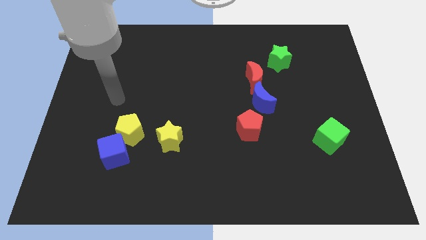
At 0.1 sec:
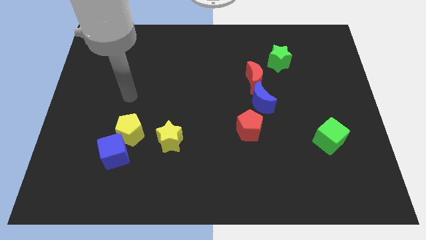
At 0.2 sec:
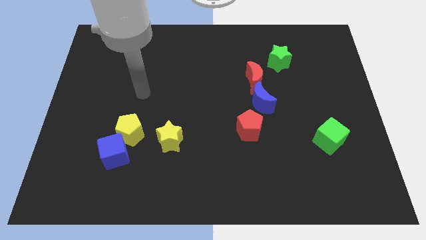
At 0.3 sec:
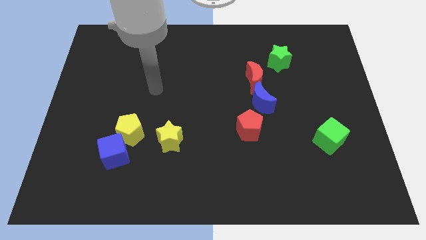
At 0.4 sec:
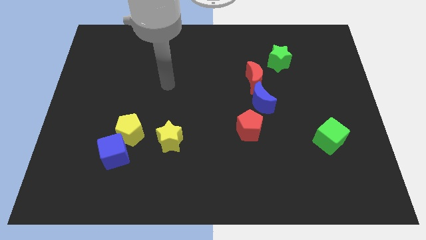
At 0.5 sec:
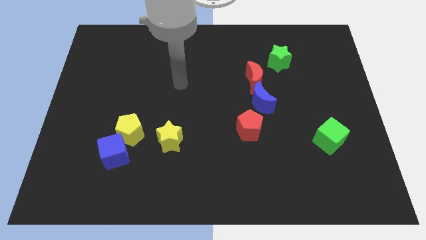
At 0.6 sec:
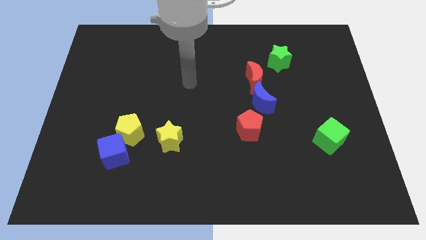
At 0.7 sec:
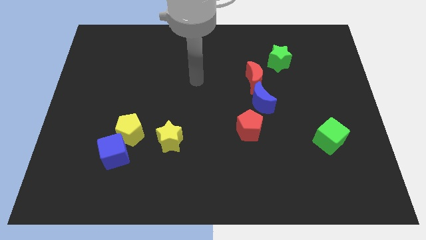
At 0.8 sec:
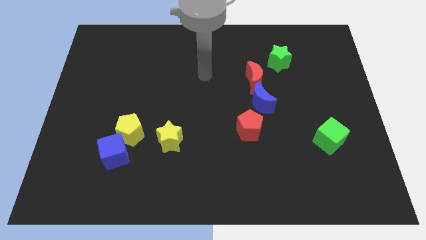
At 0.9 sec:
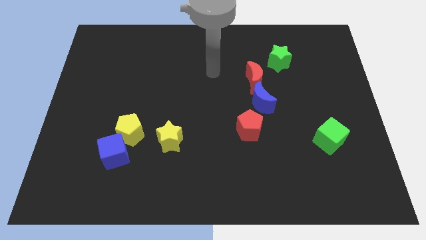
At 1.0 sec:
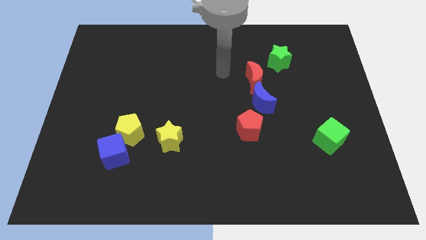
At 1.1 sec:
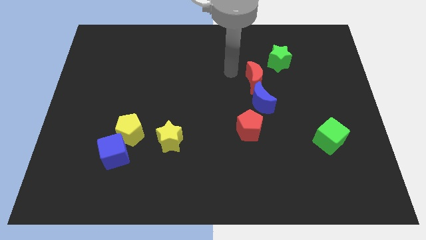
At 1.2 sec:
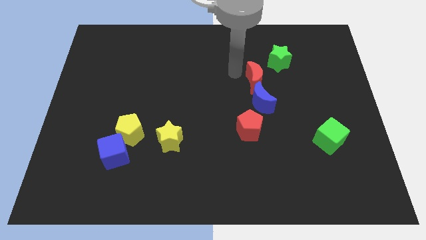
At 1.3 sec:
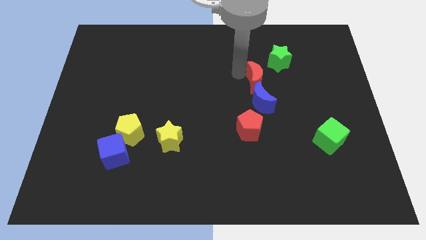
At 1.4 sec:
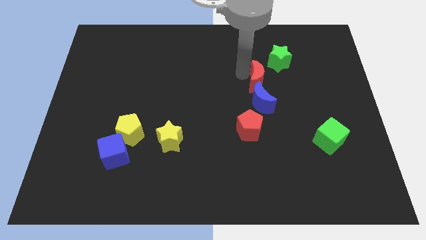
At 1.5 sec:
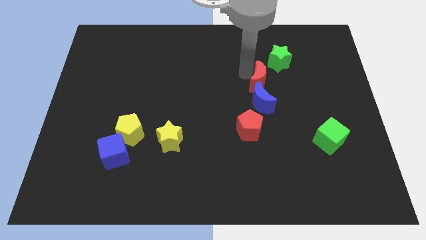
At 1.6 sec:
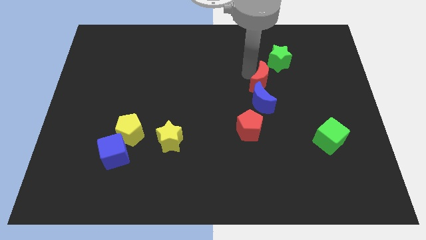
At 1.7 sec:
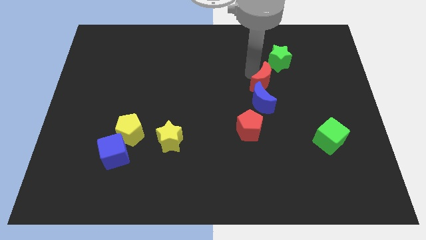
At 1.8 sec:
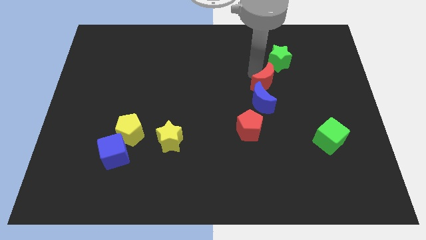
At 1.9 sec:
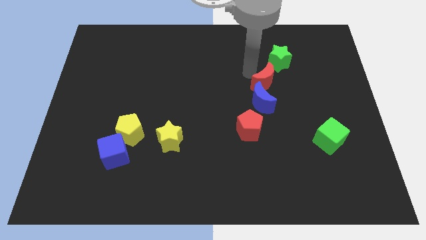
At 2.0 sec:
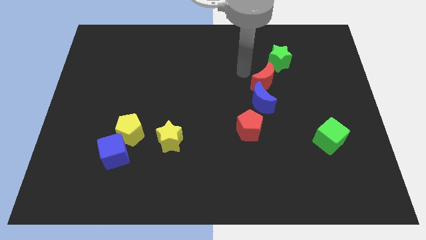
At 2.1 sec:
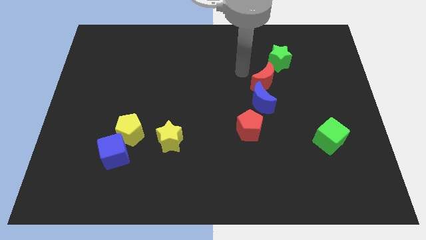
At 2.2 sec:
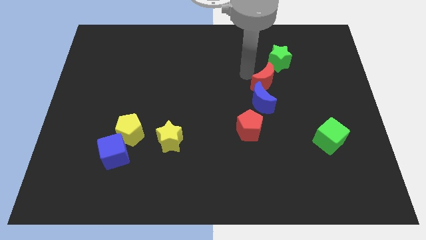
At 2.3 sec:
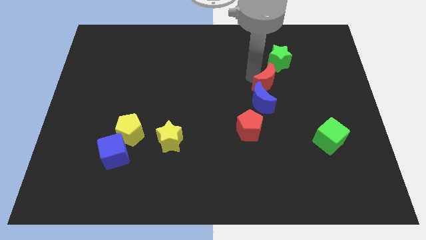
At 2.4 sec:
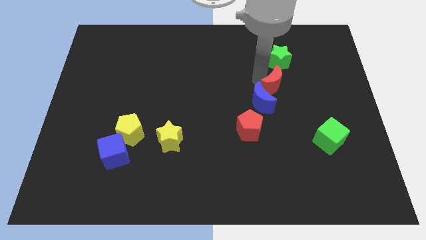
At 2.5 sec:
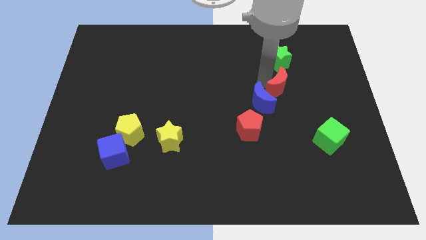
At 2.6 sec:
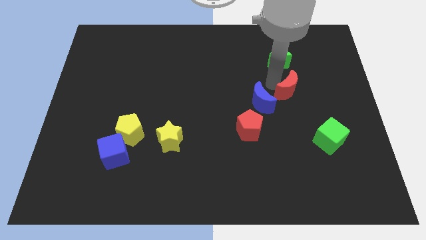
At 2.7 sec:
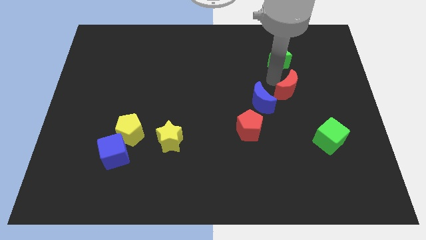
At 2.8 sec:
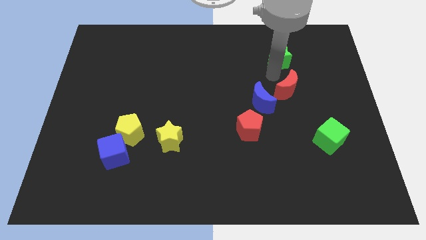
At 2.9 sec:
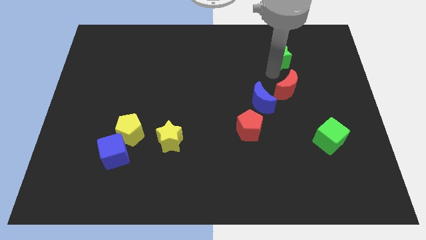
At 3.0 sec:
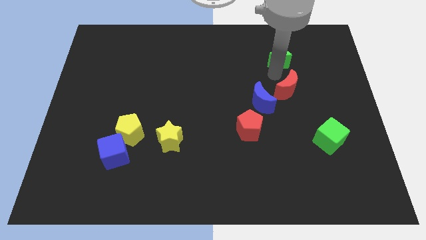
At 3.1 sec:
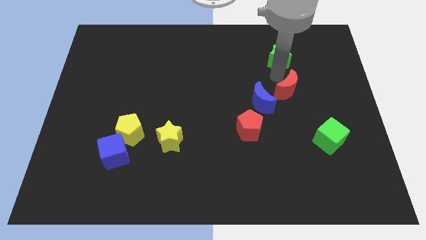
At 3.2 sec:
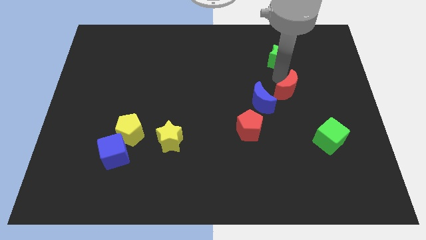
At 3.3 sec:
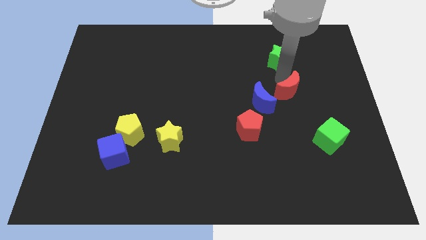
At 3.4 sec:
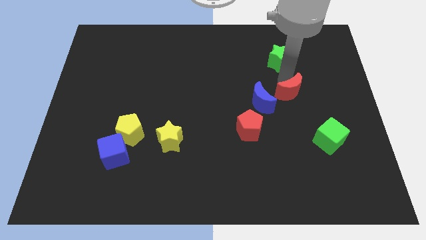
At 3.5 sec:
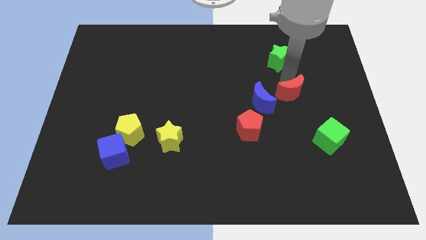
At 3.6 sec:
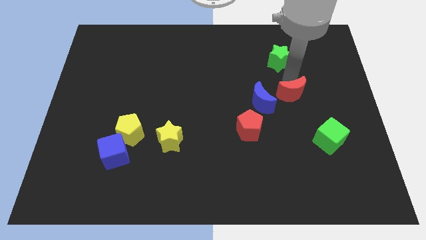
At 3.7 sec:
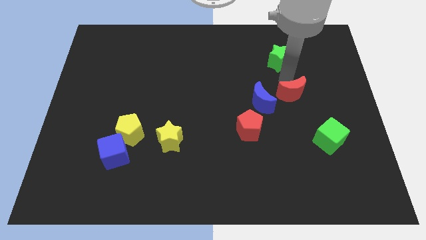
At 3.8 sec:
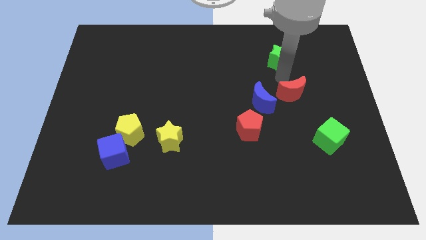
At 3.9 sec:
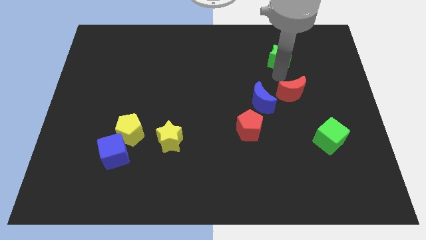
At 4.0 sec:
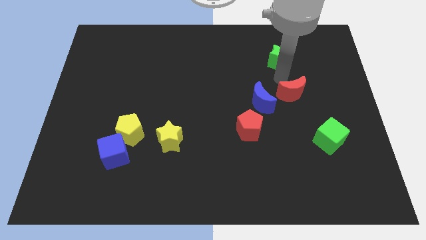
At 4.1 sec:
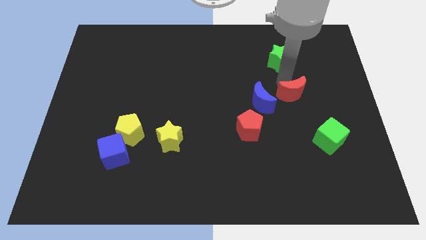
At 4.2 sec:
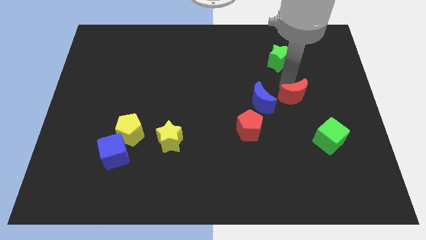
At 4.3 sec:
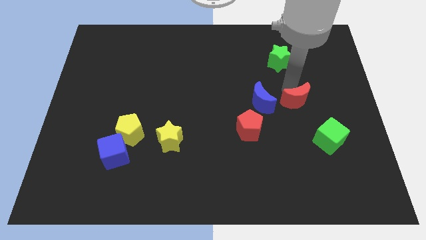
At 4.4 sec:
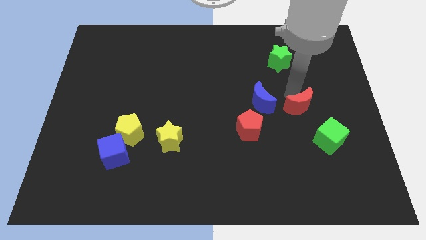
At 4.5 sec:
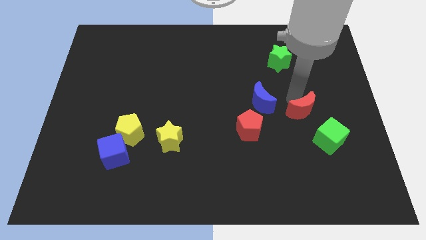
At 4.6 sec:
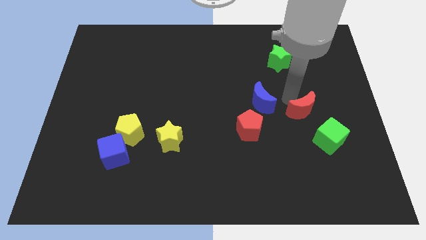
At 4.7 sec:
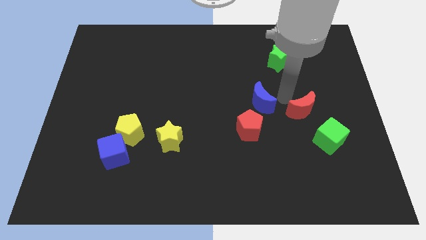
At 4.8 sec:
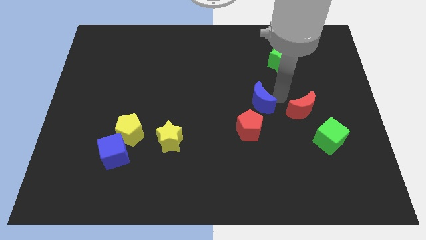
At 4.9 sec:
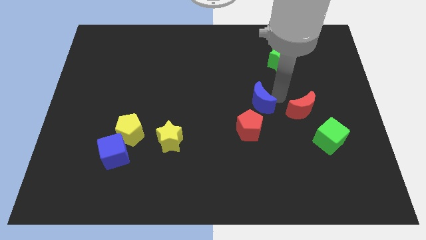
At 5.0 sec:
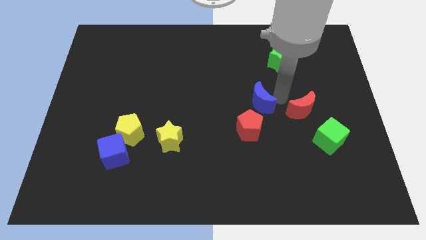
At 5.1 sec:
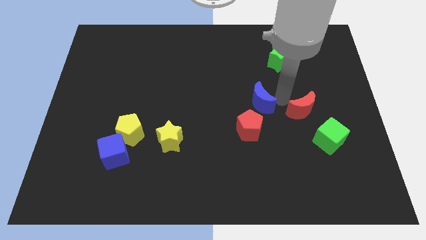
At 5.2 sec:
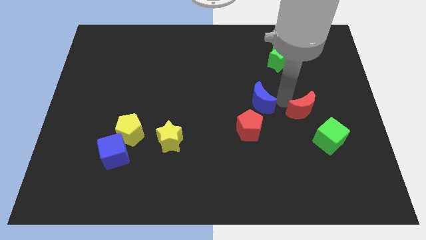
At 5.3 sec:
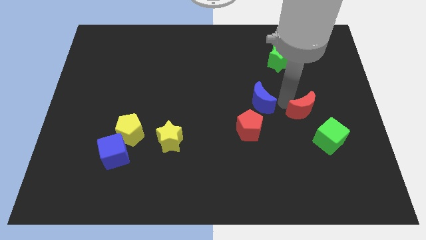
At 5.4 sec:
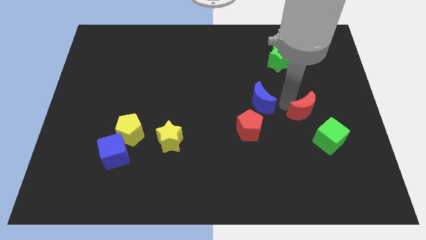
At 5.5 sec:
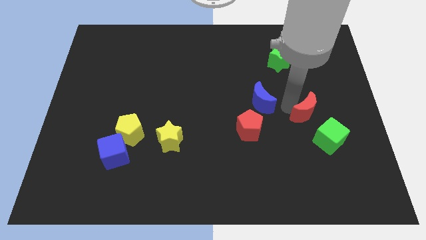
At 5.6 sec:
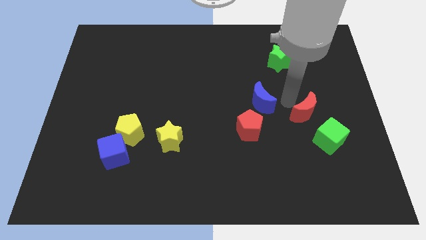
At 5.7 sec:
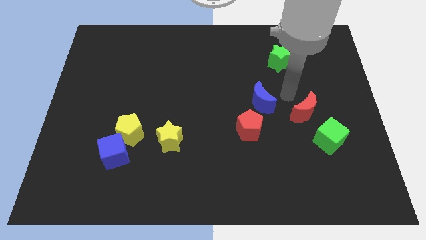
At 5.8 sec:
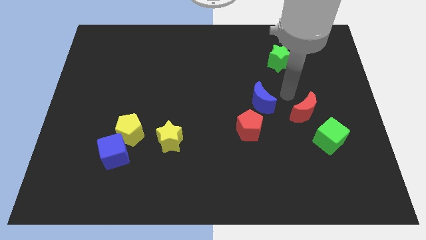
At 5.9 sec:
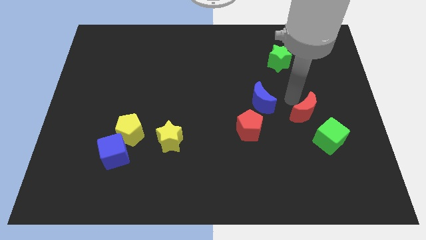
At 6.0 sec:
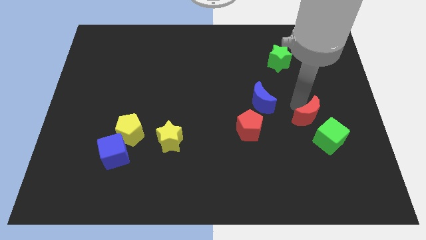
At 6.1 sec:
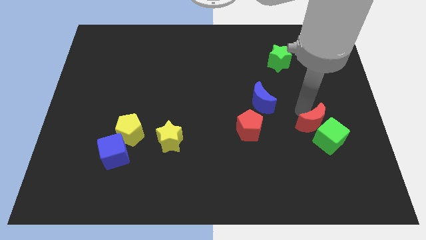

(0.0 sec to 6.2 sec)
slide the red moon next to the green cube
